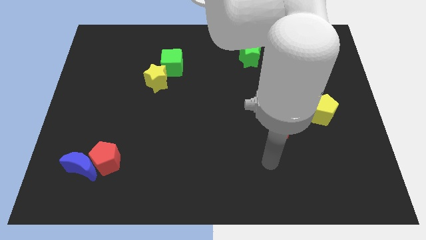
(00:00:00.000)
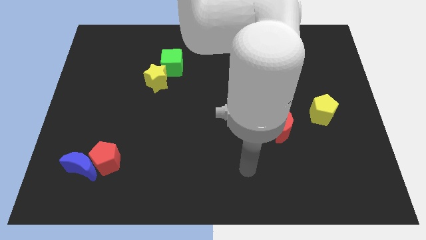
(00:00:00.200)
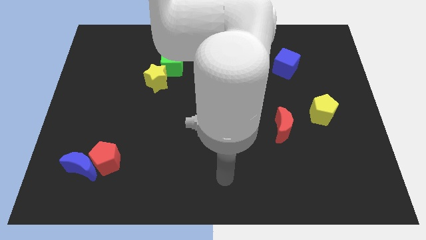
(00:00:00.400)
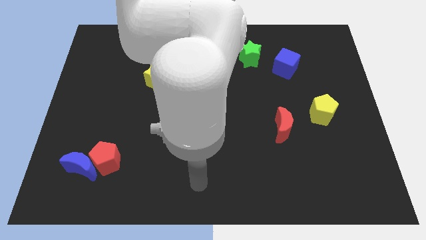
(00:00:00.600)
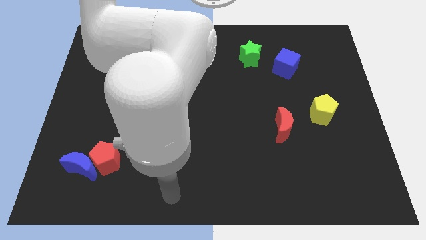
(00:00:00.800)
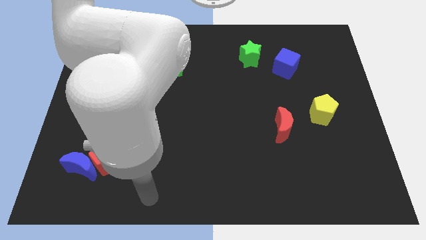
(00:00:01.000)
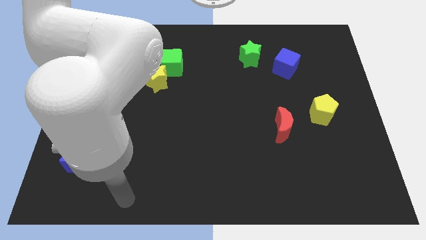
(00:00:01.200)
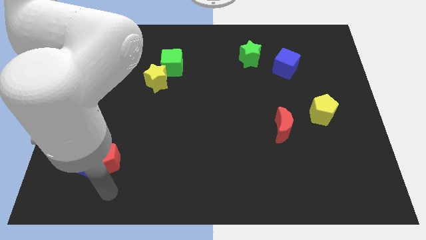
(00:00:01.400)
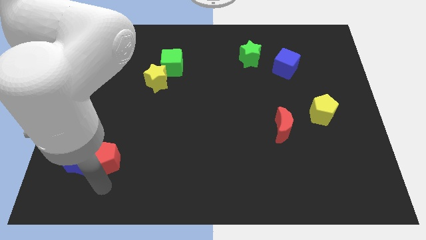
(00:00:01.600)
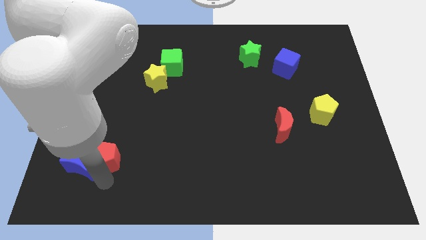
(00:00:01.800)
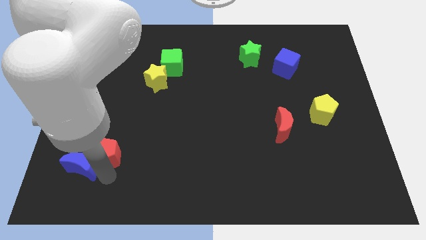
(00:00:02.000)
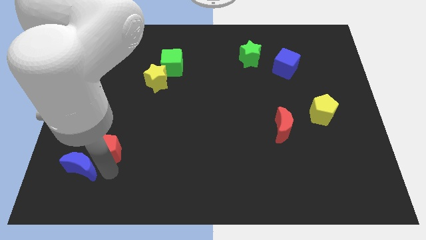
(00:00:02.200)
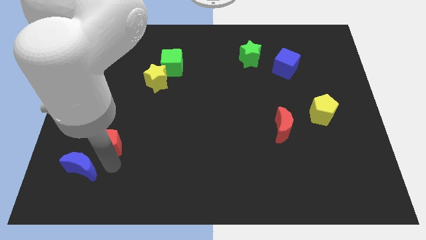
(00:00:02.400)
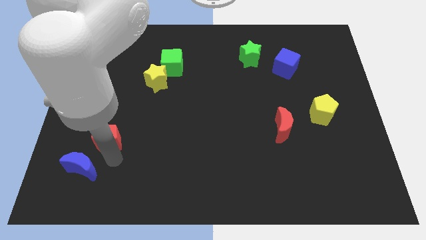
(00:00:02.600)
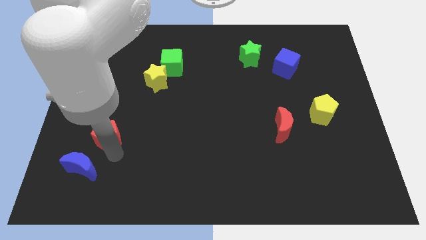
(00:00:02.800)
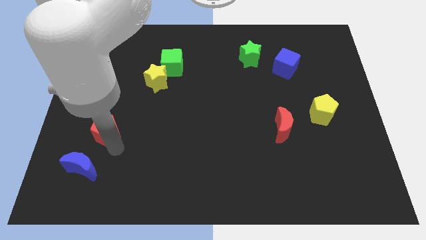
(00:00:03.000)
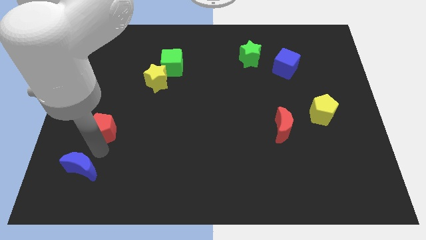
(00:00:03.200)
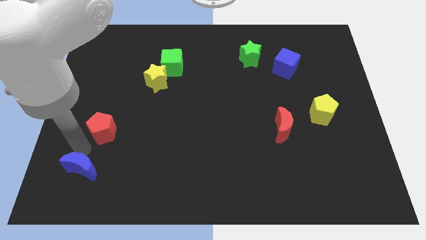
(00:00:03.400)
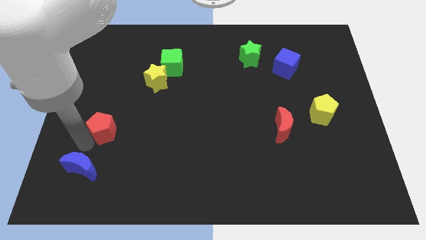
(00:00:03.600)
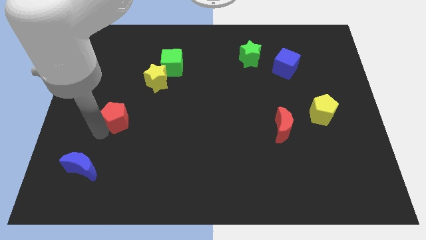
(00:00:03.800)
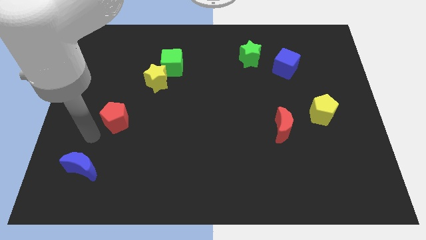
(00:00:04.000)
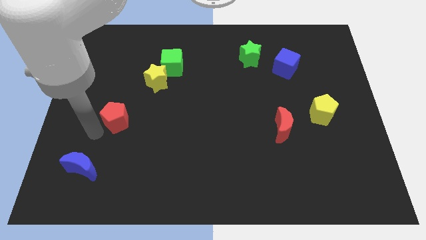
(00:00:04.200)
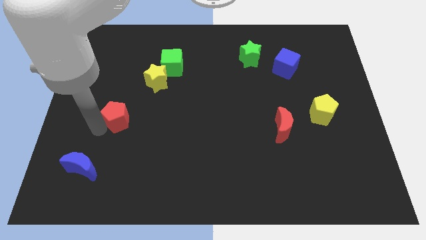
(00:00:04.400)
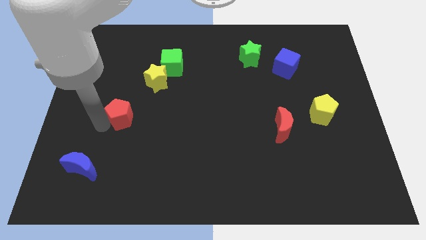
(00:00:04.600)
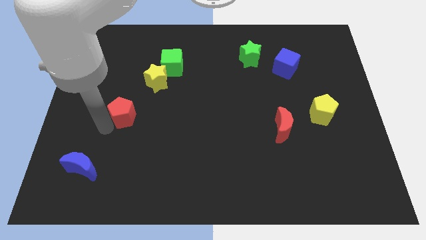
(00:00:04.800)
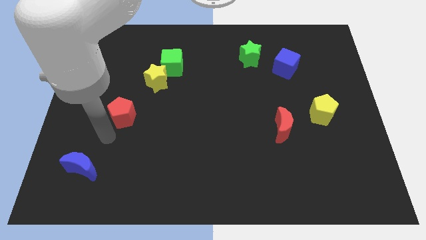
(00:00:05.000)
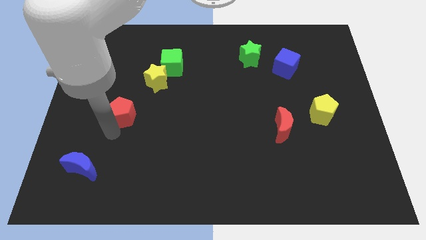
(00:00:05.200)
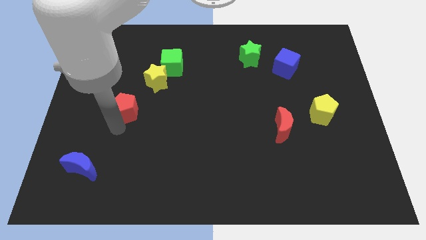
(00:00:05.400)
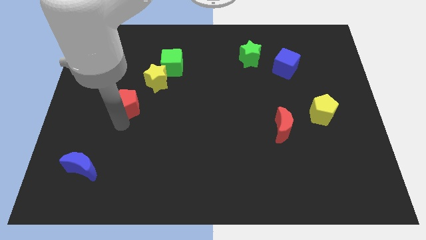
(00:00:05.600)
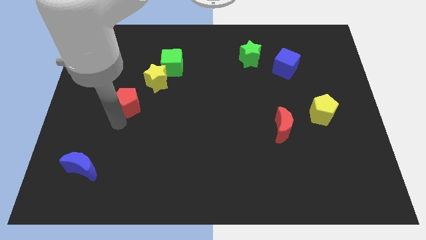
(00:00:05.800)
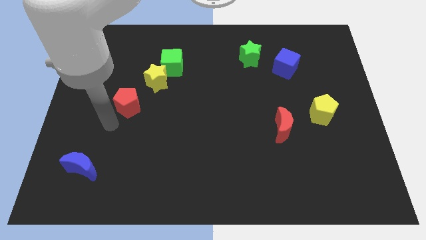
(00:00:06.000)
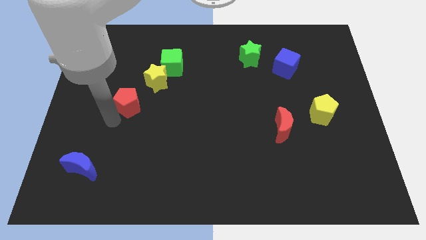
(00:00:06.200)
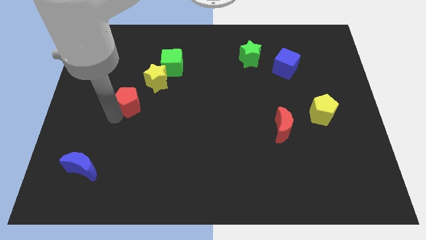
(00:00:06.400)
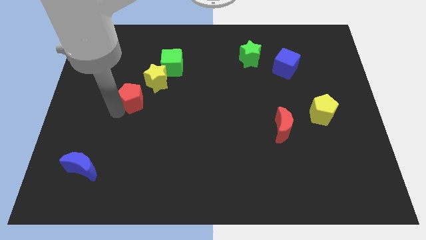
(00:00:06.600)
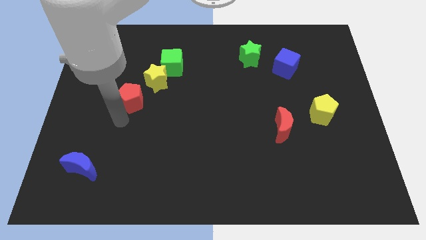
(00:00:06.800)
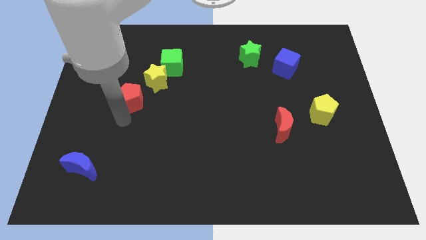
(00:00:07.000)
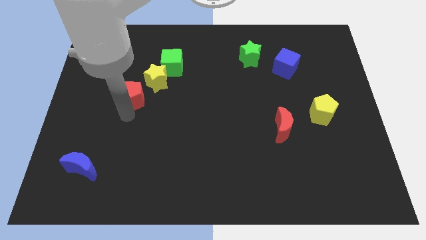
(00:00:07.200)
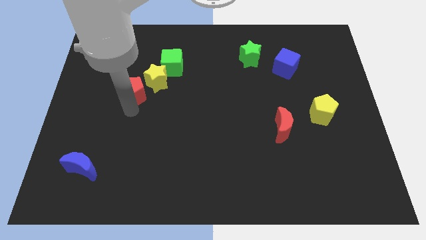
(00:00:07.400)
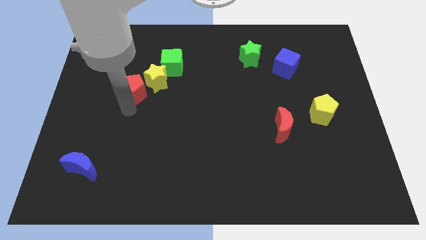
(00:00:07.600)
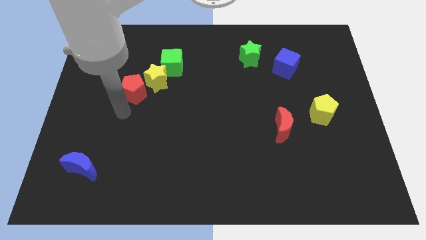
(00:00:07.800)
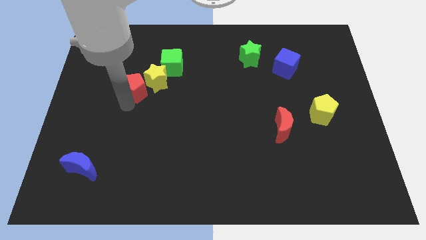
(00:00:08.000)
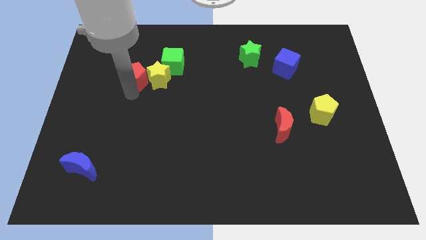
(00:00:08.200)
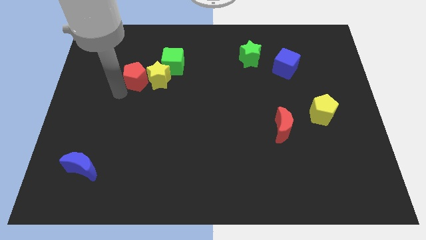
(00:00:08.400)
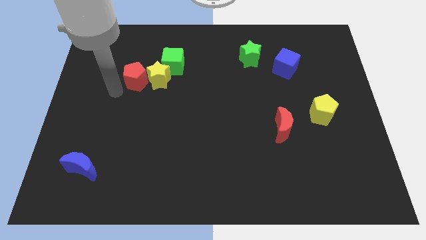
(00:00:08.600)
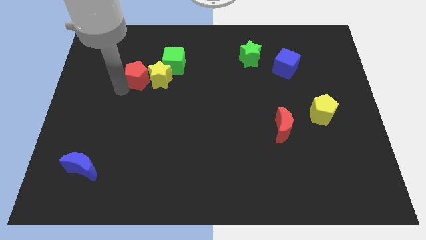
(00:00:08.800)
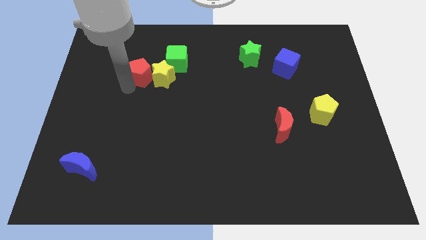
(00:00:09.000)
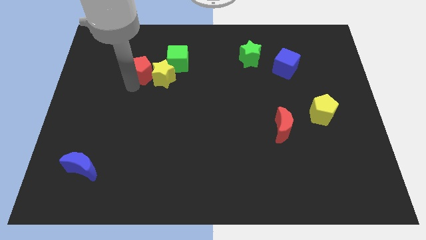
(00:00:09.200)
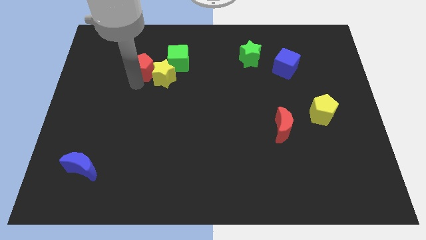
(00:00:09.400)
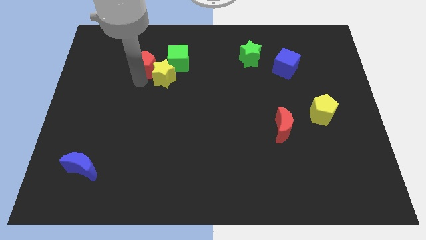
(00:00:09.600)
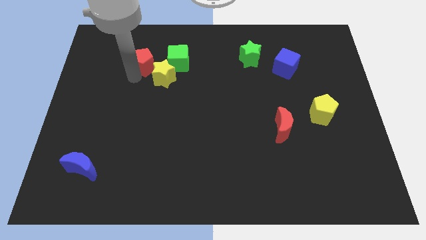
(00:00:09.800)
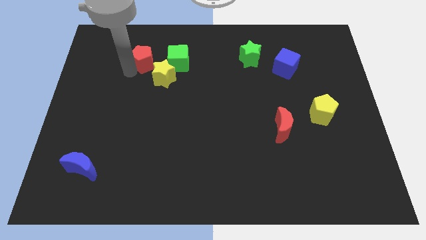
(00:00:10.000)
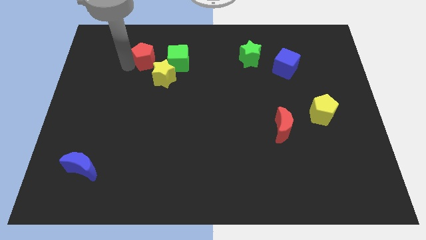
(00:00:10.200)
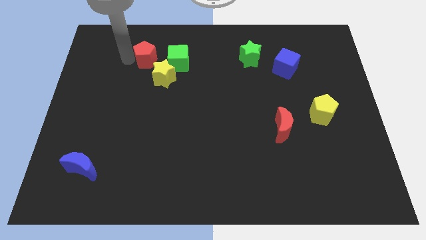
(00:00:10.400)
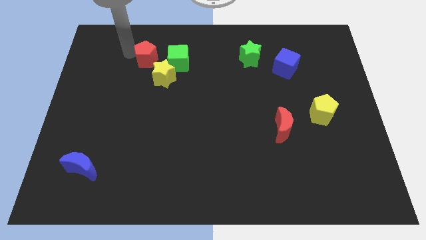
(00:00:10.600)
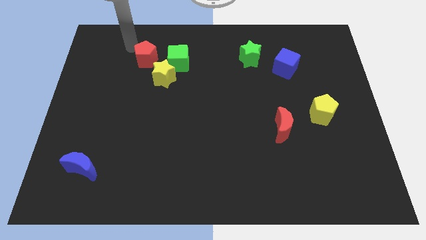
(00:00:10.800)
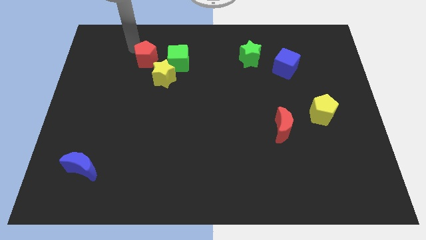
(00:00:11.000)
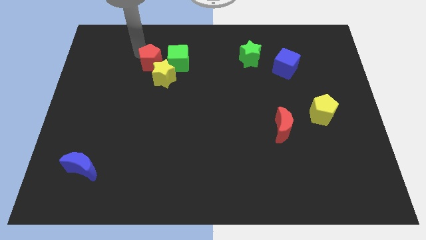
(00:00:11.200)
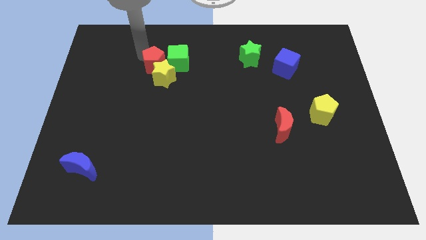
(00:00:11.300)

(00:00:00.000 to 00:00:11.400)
push the red pentagon close to the green cube

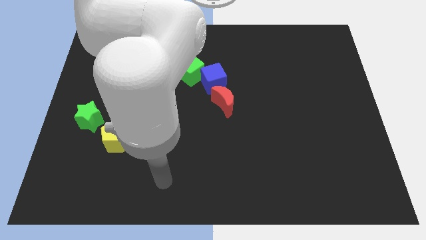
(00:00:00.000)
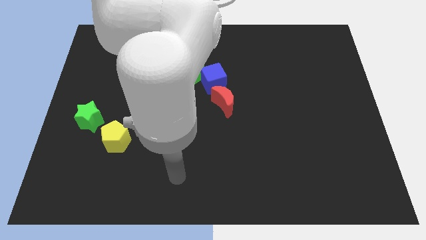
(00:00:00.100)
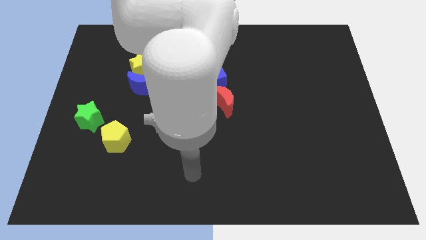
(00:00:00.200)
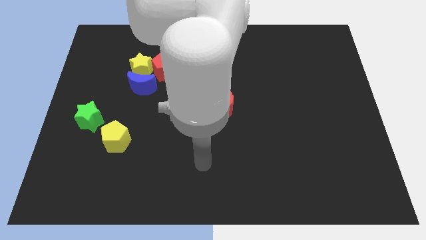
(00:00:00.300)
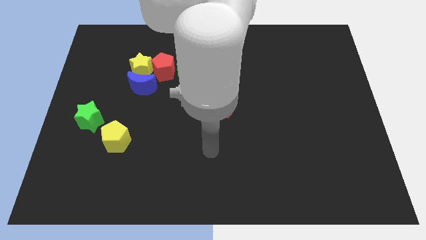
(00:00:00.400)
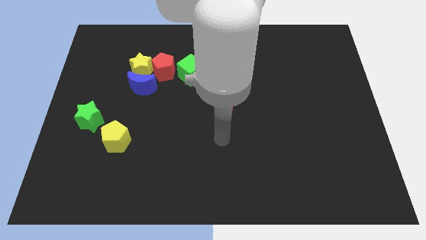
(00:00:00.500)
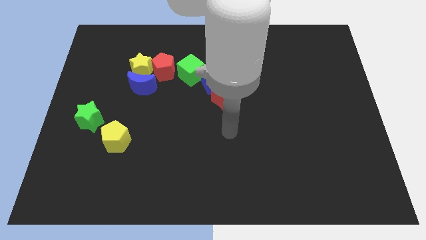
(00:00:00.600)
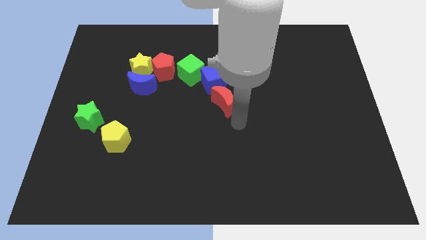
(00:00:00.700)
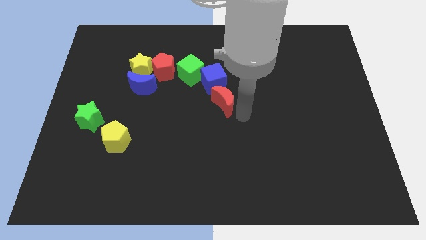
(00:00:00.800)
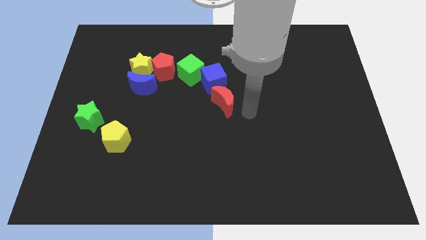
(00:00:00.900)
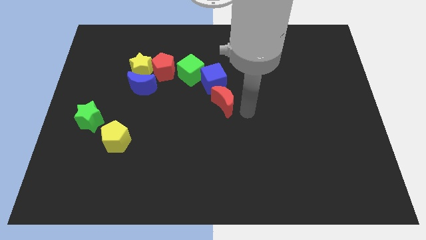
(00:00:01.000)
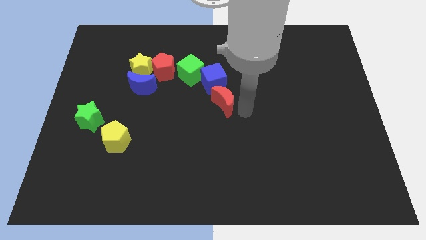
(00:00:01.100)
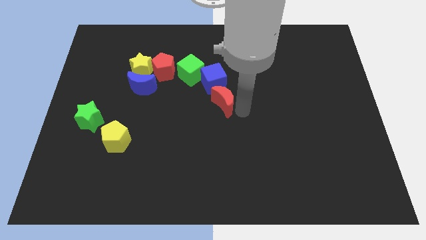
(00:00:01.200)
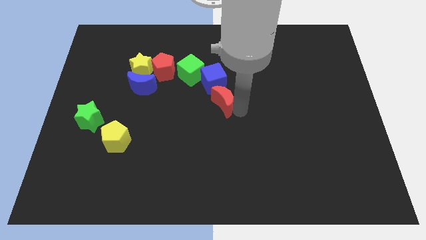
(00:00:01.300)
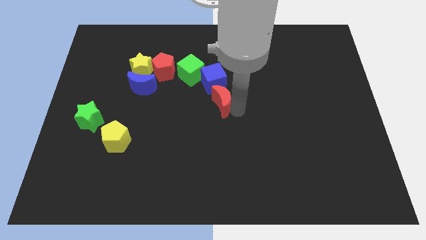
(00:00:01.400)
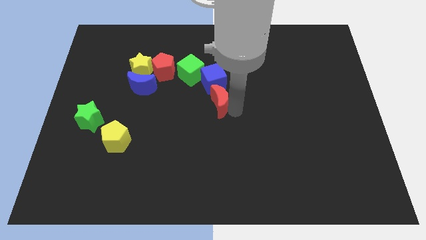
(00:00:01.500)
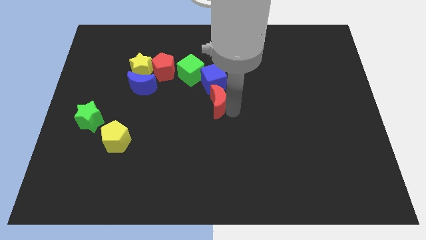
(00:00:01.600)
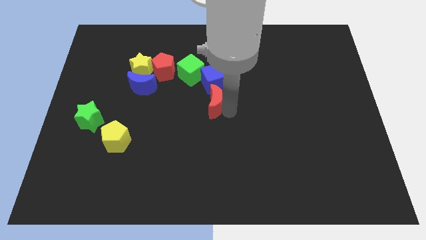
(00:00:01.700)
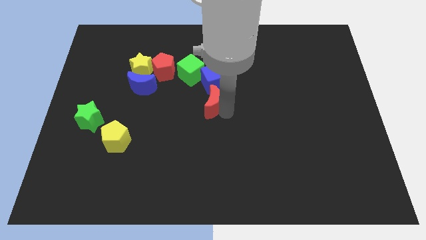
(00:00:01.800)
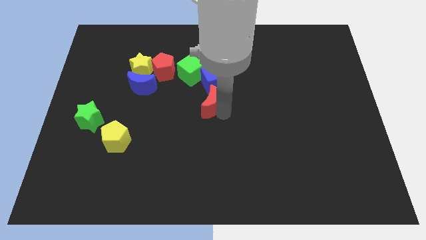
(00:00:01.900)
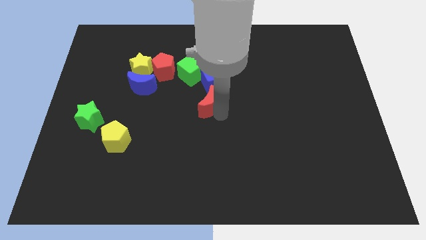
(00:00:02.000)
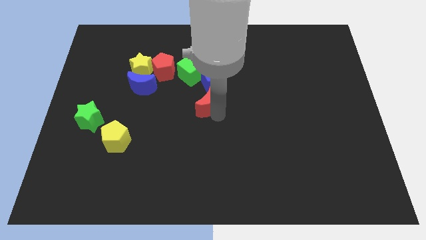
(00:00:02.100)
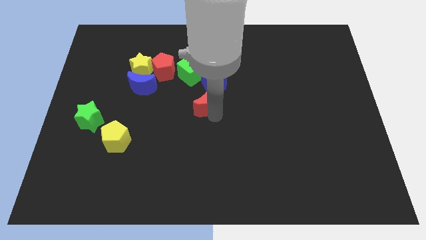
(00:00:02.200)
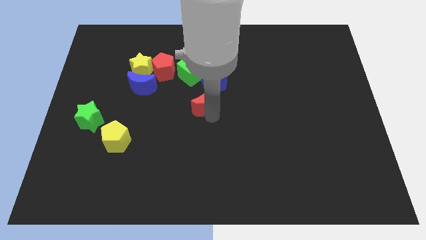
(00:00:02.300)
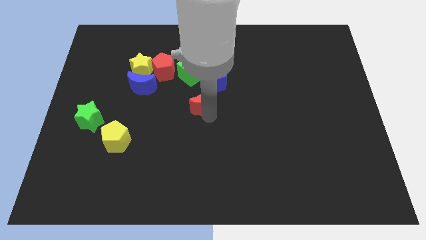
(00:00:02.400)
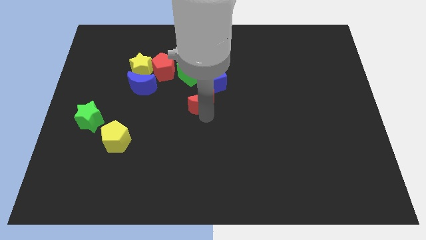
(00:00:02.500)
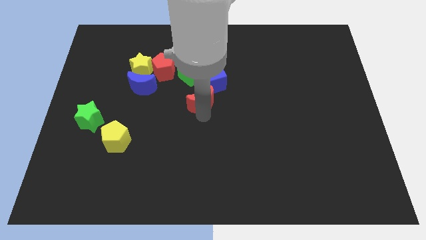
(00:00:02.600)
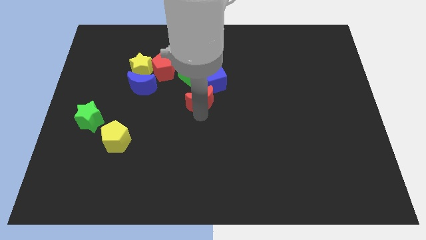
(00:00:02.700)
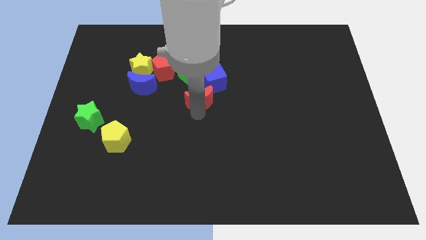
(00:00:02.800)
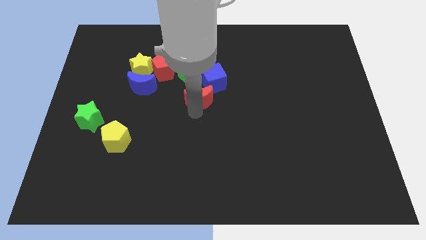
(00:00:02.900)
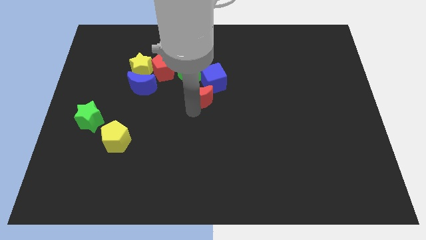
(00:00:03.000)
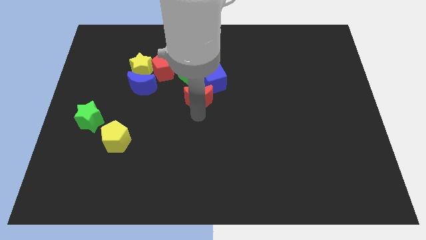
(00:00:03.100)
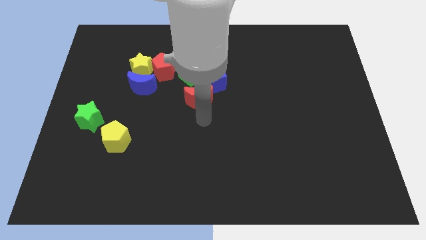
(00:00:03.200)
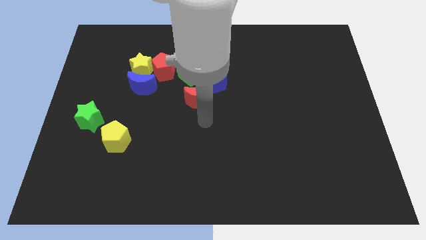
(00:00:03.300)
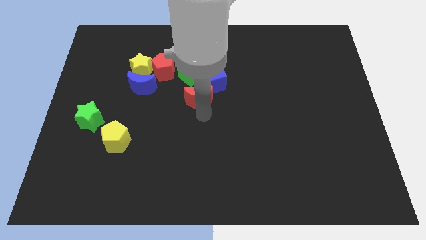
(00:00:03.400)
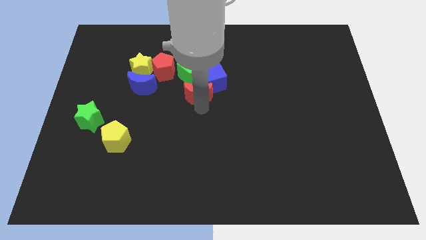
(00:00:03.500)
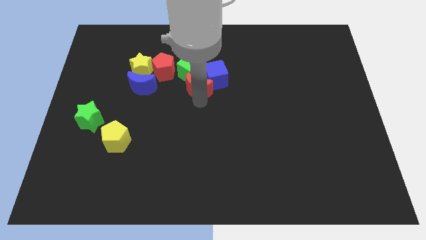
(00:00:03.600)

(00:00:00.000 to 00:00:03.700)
push the red moon towards the green cube
